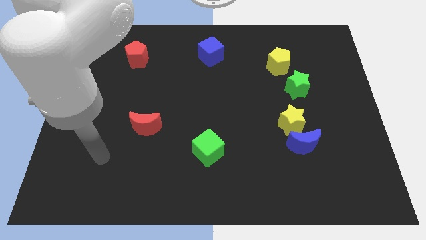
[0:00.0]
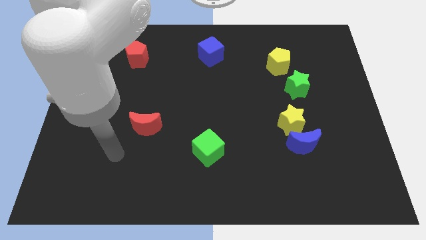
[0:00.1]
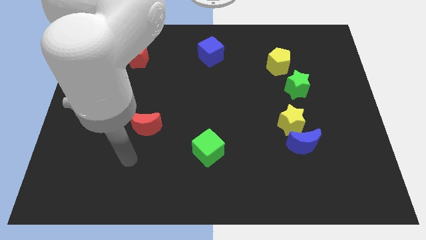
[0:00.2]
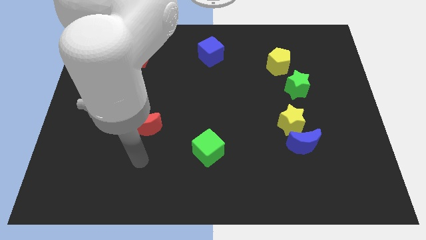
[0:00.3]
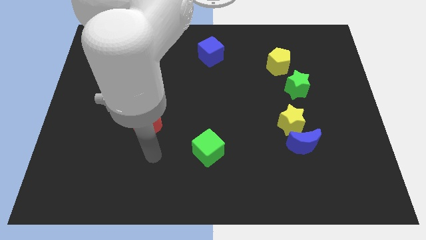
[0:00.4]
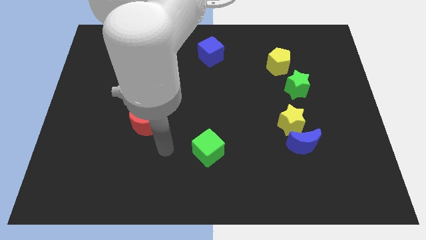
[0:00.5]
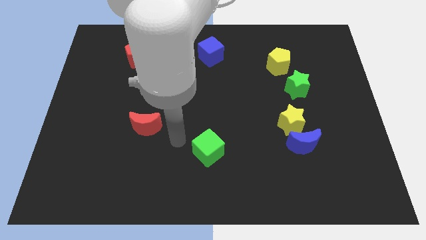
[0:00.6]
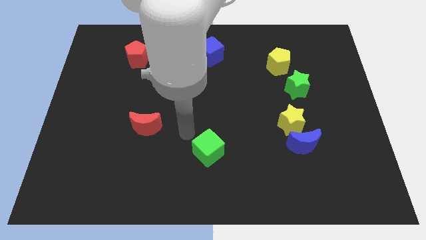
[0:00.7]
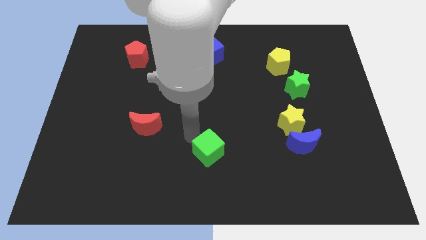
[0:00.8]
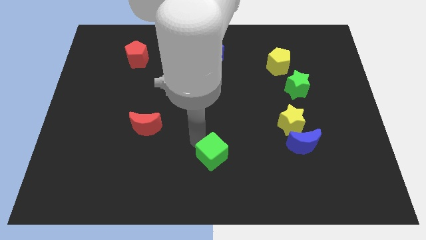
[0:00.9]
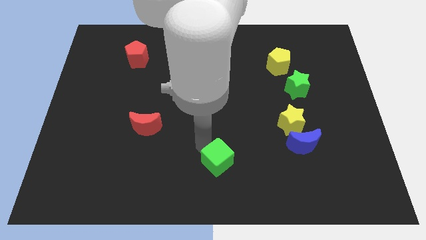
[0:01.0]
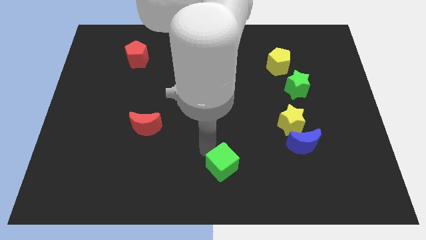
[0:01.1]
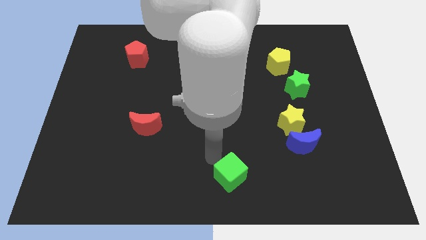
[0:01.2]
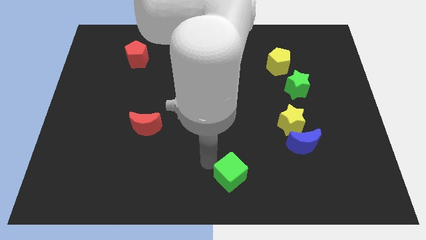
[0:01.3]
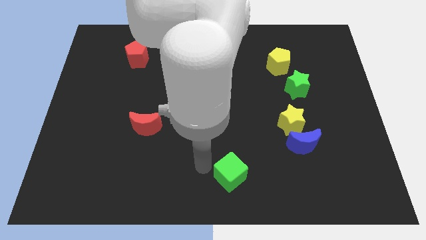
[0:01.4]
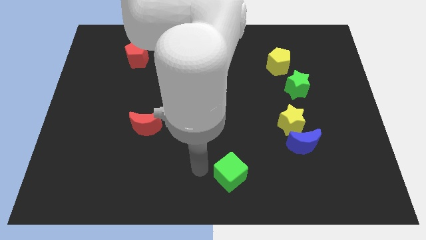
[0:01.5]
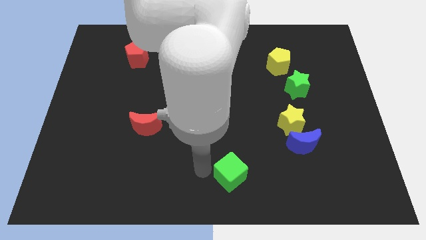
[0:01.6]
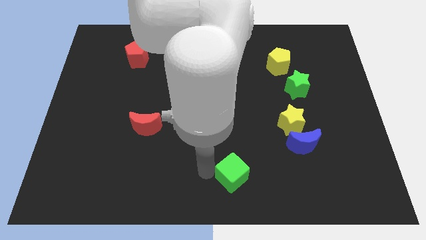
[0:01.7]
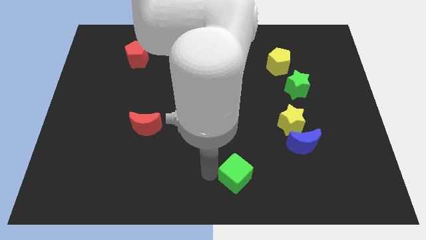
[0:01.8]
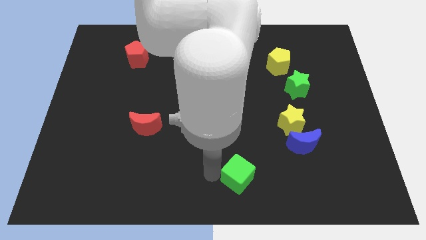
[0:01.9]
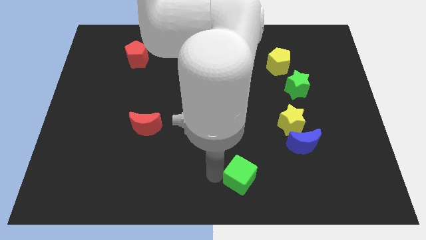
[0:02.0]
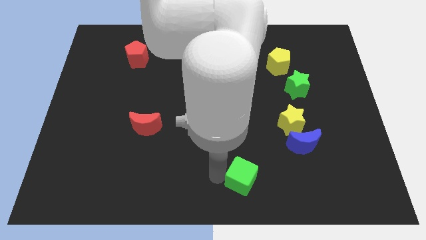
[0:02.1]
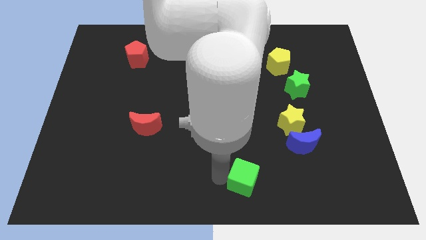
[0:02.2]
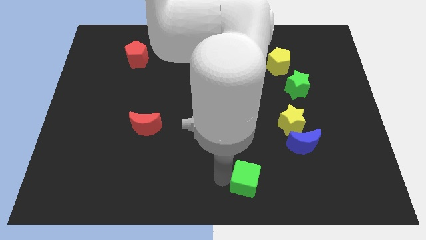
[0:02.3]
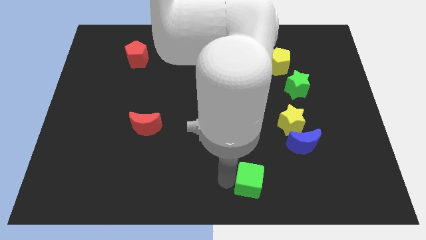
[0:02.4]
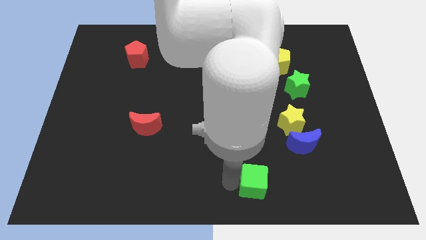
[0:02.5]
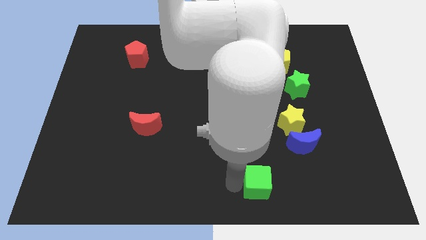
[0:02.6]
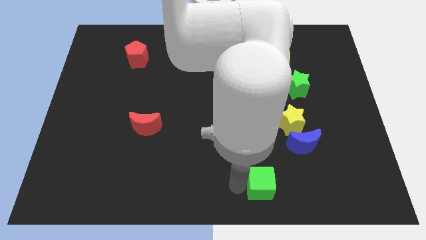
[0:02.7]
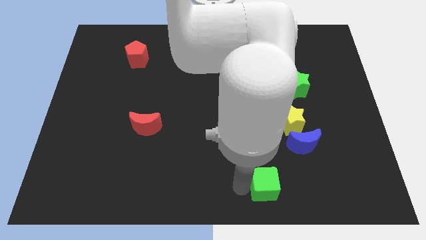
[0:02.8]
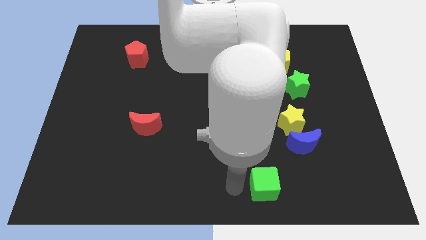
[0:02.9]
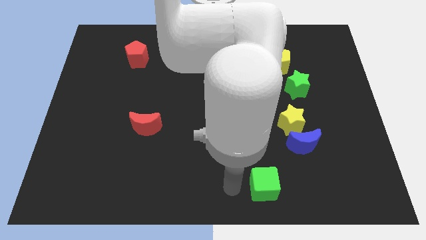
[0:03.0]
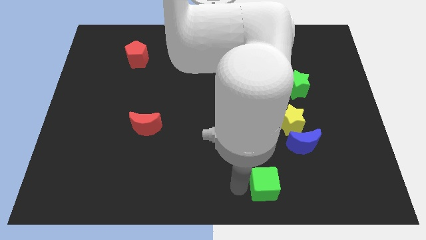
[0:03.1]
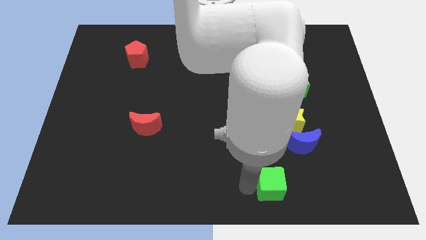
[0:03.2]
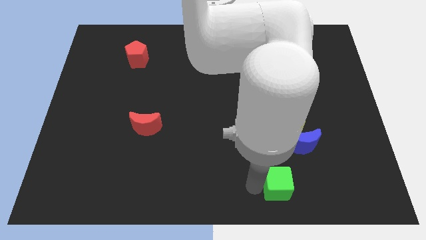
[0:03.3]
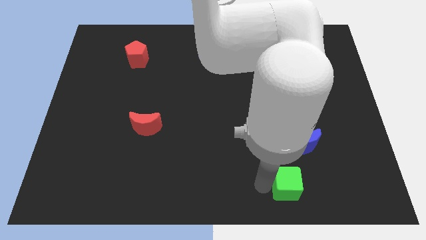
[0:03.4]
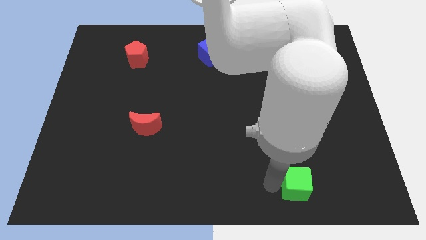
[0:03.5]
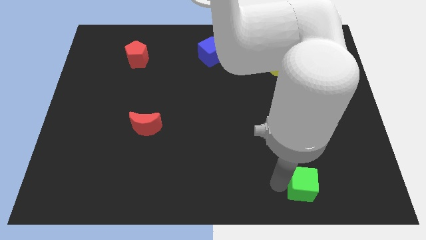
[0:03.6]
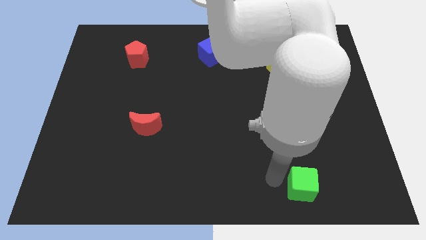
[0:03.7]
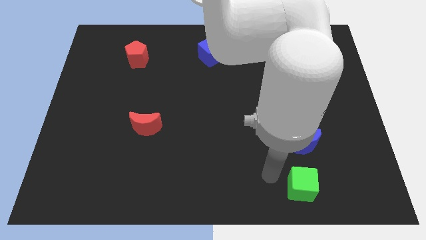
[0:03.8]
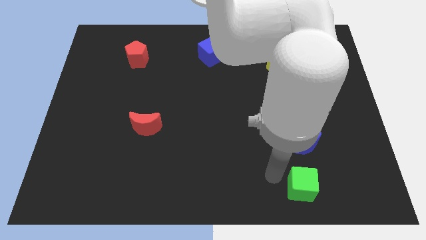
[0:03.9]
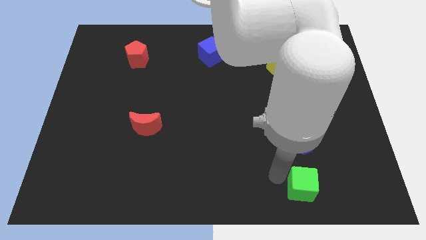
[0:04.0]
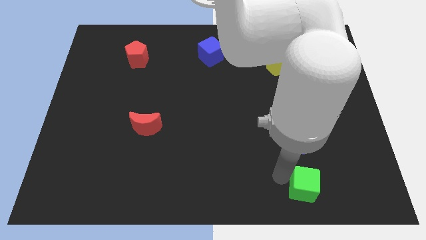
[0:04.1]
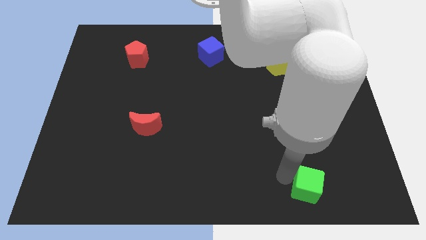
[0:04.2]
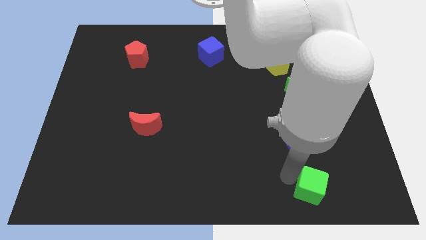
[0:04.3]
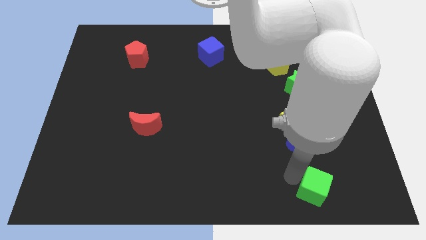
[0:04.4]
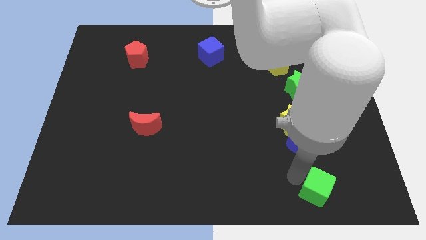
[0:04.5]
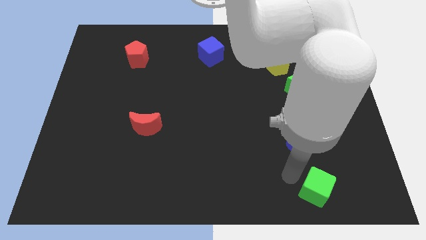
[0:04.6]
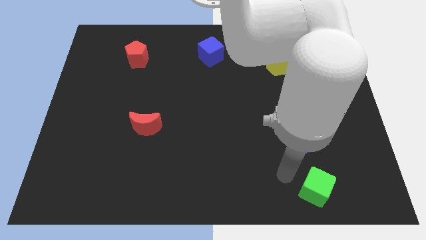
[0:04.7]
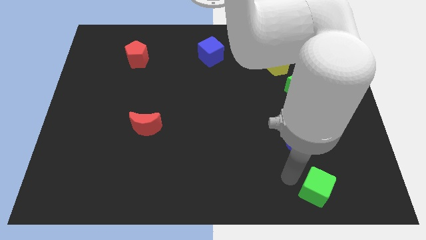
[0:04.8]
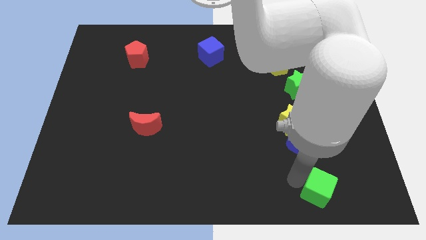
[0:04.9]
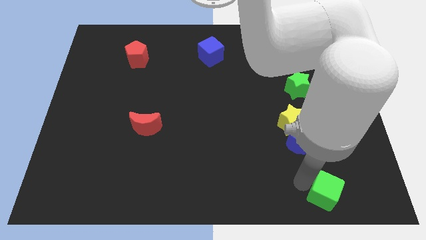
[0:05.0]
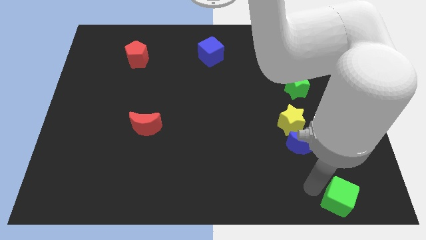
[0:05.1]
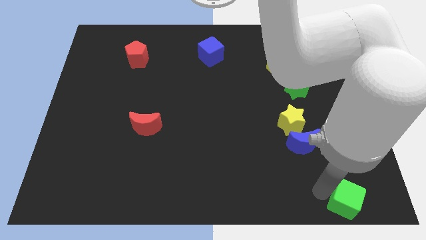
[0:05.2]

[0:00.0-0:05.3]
move the green cube to the lower right corner

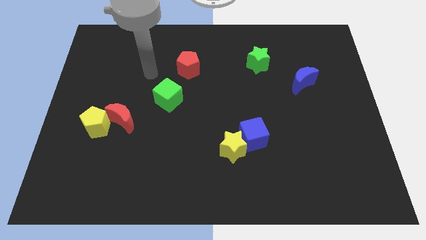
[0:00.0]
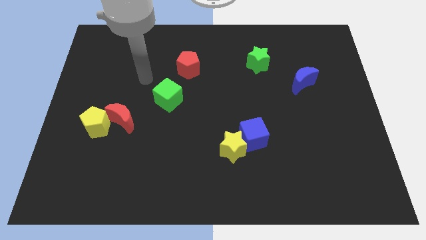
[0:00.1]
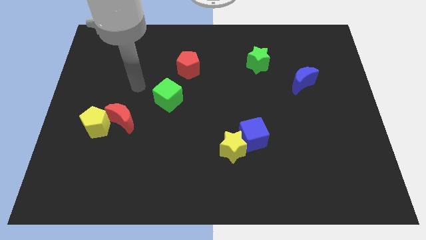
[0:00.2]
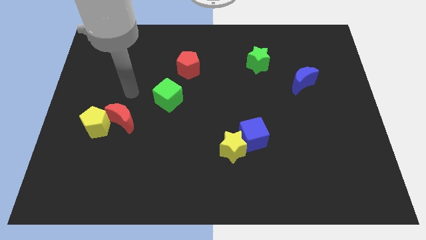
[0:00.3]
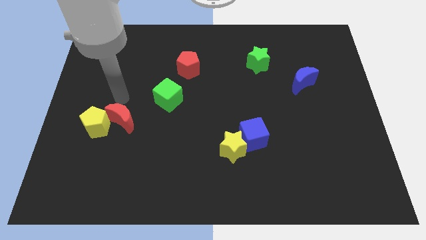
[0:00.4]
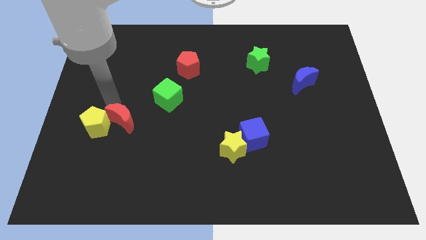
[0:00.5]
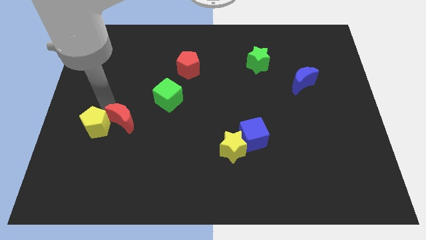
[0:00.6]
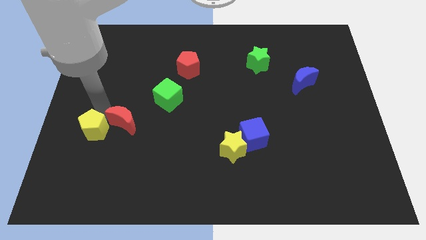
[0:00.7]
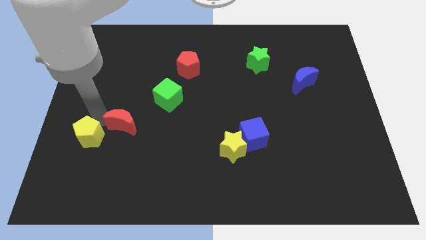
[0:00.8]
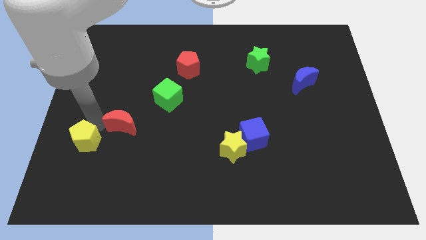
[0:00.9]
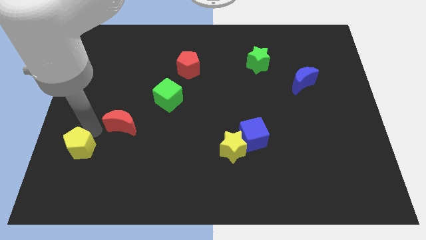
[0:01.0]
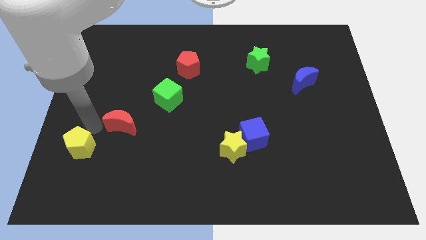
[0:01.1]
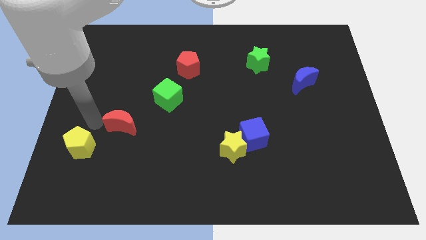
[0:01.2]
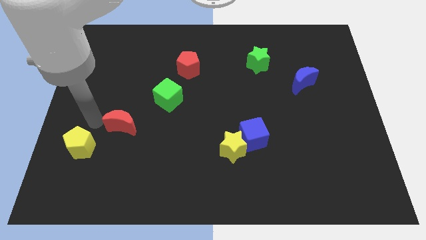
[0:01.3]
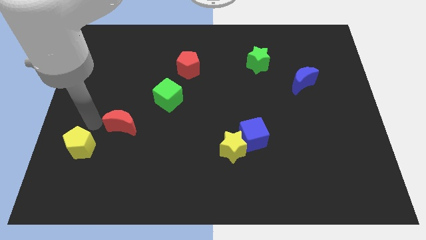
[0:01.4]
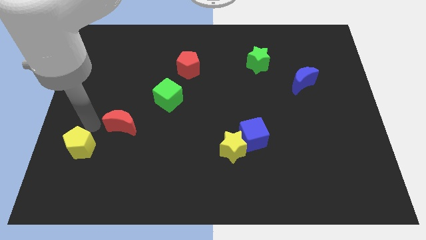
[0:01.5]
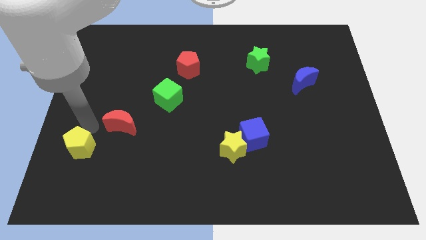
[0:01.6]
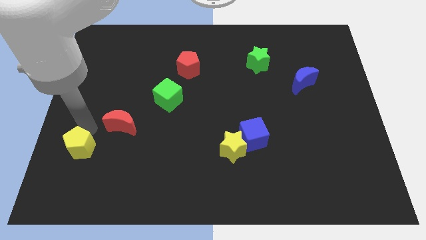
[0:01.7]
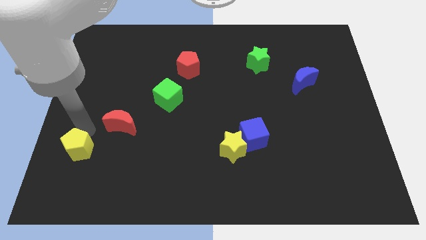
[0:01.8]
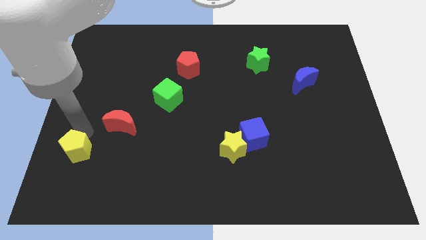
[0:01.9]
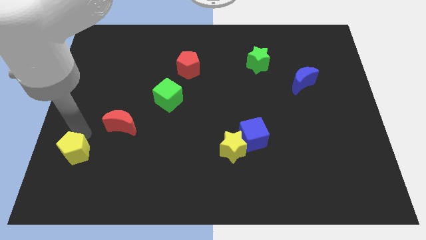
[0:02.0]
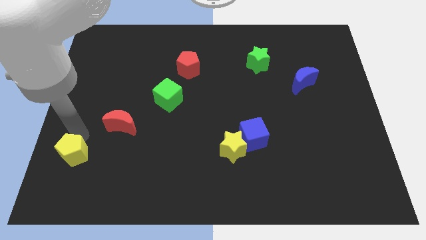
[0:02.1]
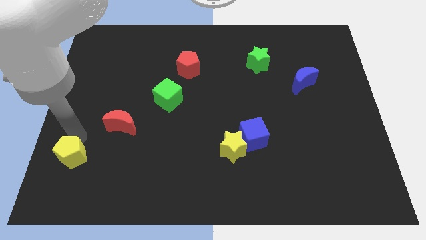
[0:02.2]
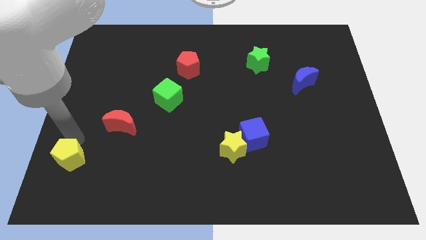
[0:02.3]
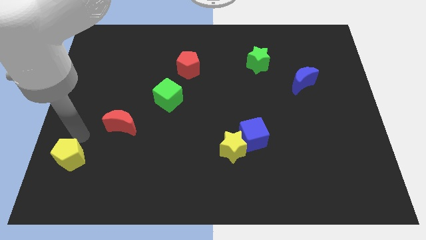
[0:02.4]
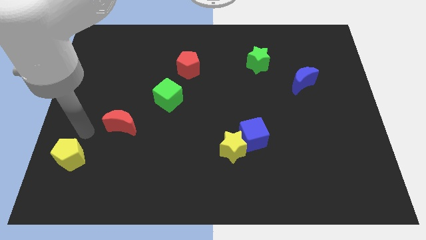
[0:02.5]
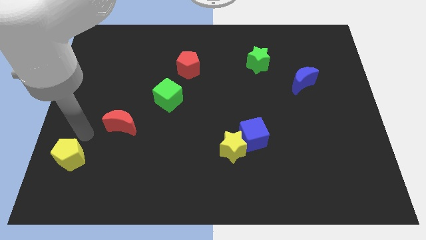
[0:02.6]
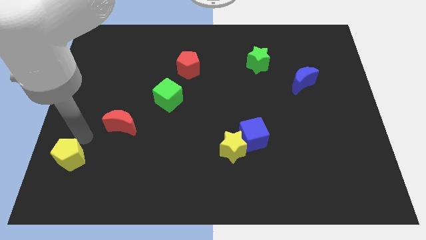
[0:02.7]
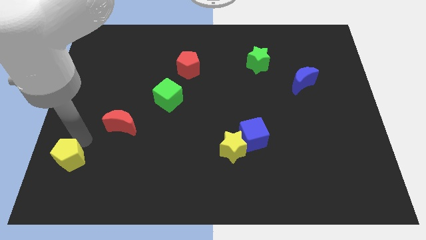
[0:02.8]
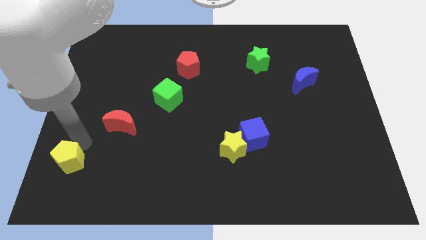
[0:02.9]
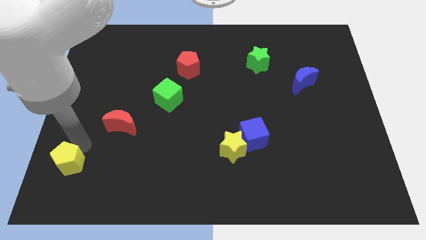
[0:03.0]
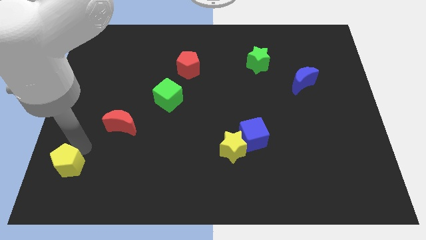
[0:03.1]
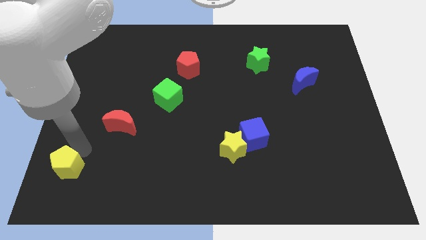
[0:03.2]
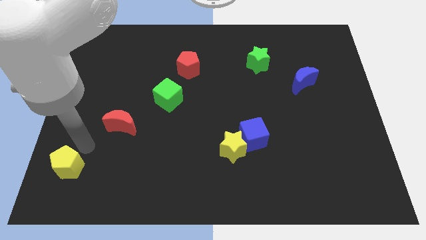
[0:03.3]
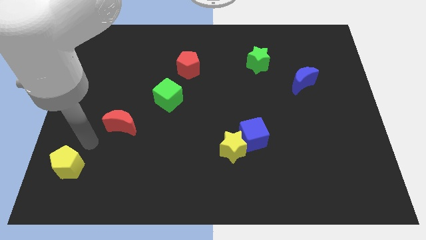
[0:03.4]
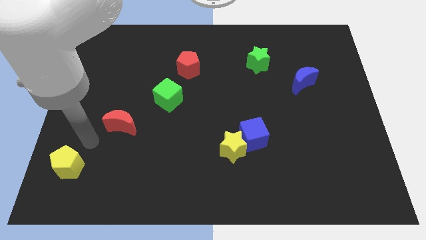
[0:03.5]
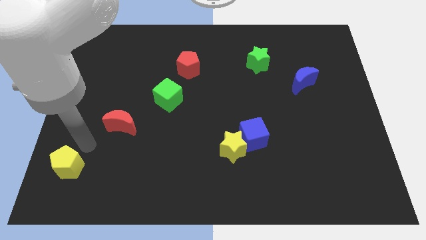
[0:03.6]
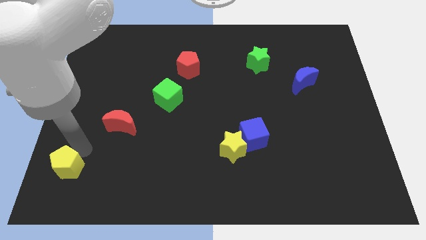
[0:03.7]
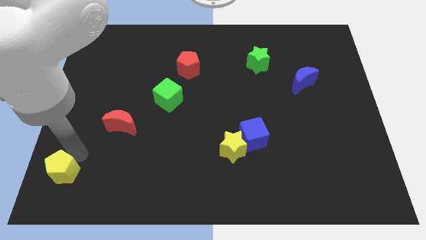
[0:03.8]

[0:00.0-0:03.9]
slide the yellow pentagon to the bottom left corner
